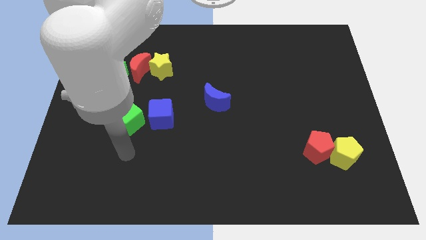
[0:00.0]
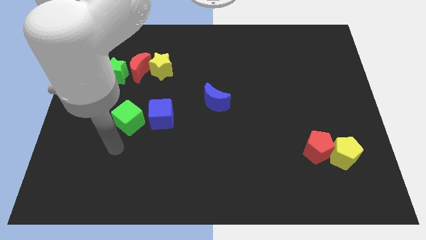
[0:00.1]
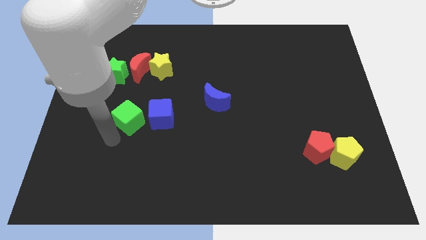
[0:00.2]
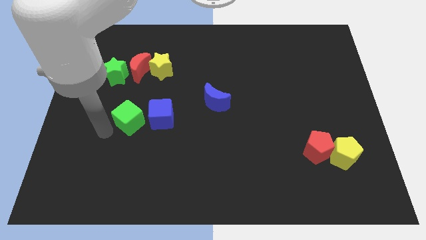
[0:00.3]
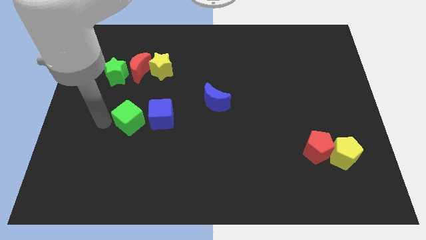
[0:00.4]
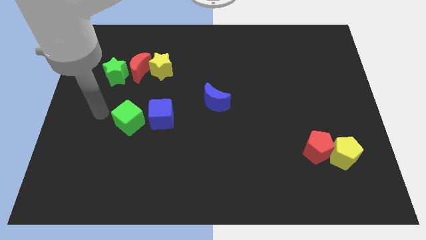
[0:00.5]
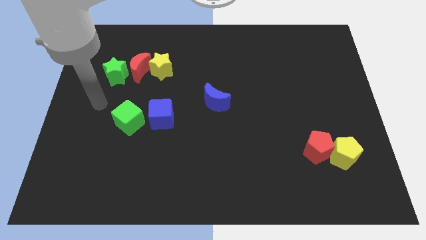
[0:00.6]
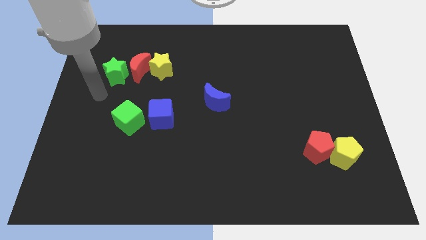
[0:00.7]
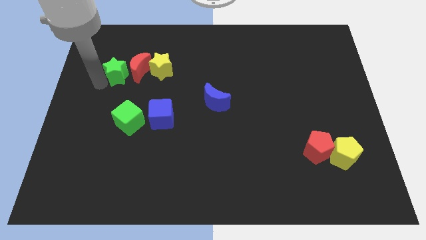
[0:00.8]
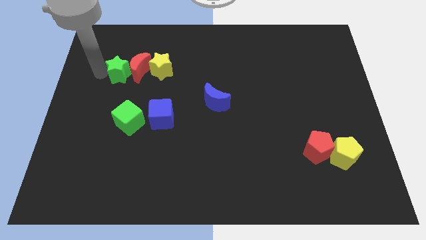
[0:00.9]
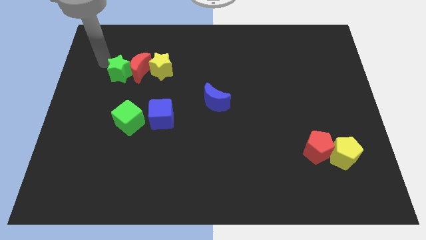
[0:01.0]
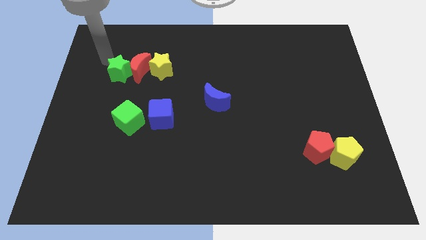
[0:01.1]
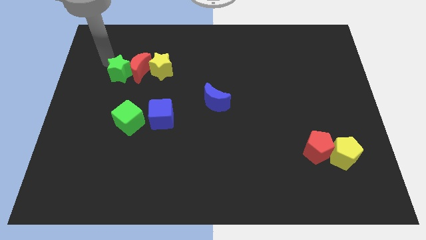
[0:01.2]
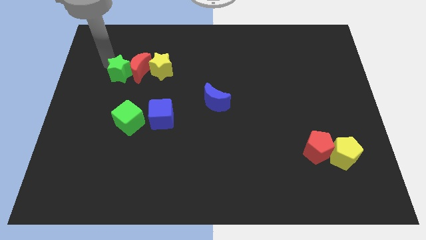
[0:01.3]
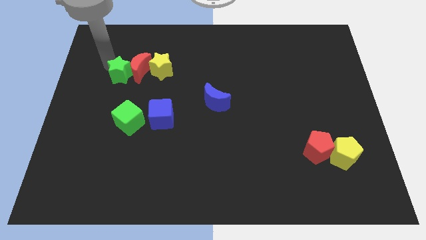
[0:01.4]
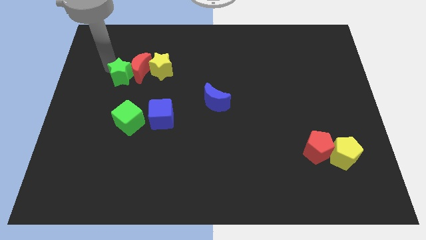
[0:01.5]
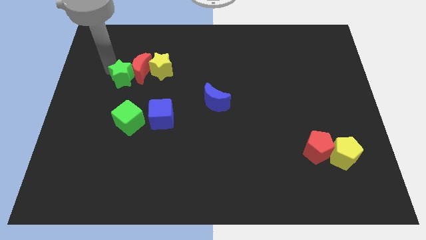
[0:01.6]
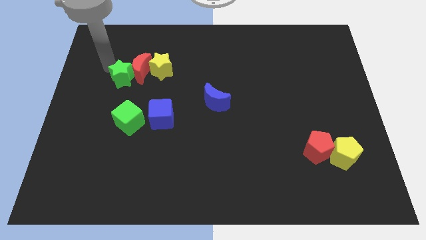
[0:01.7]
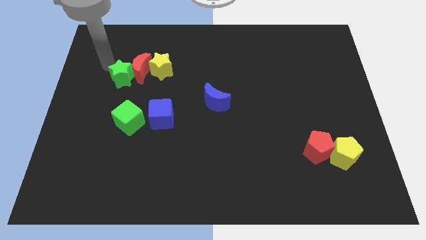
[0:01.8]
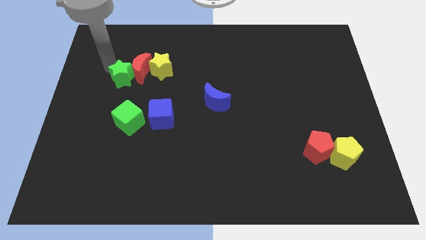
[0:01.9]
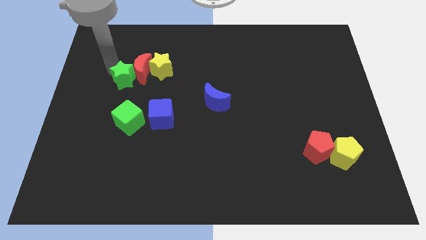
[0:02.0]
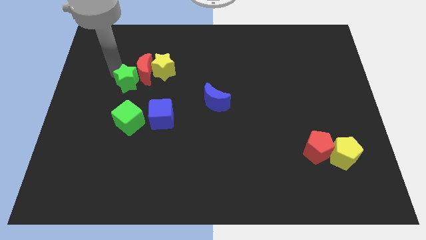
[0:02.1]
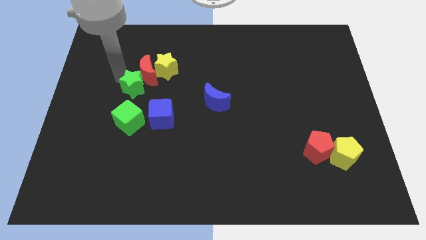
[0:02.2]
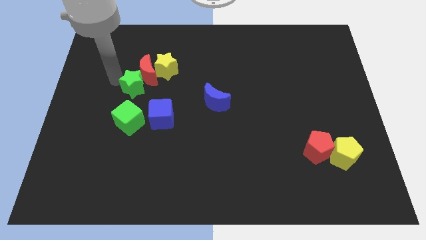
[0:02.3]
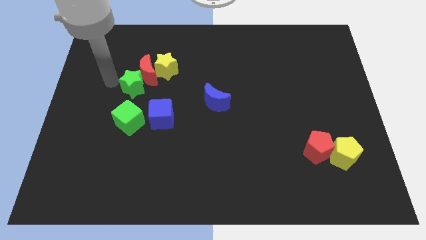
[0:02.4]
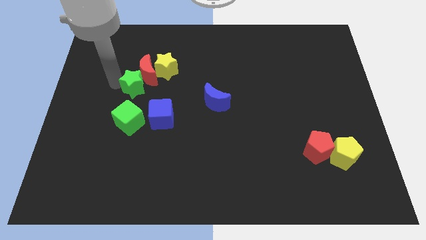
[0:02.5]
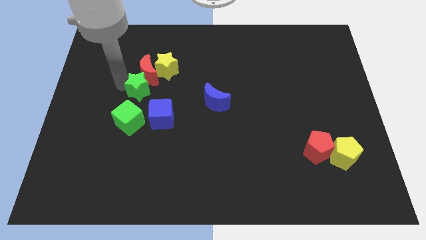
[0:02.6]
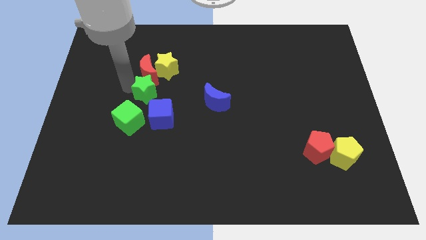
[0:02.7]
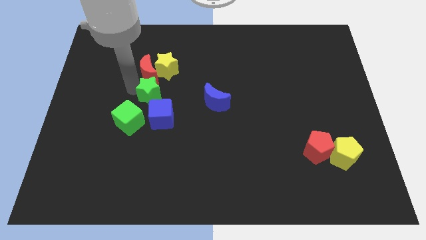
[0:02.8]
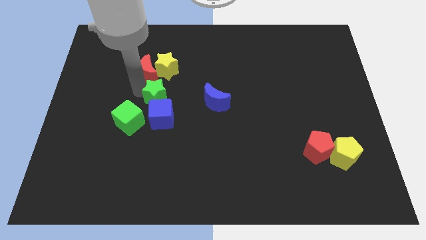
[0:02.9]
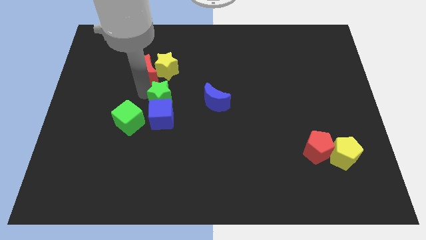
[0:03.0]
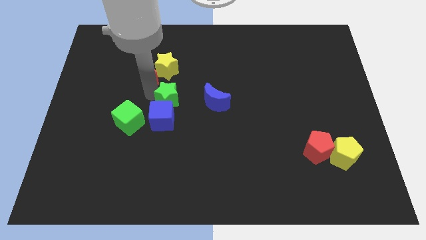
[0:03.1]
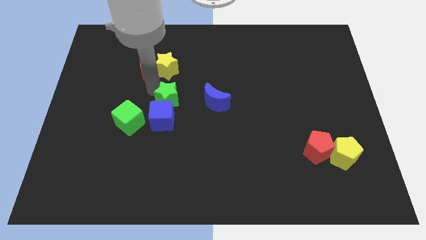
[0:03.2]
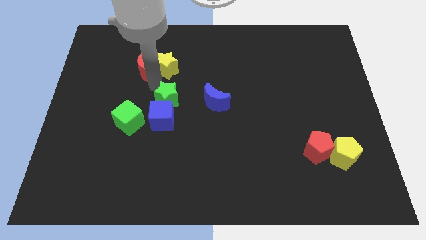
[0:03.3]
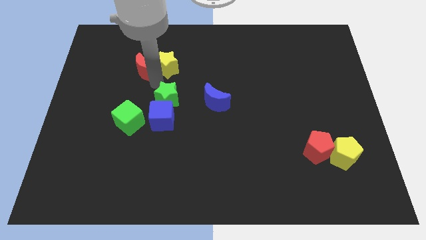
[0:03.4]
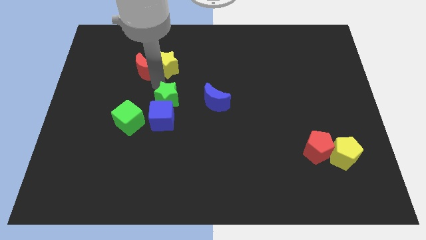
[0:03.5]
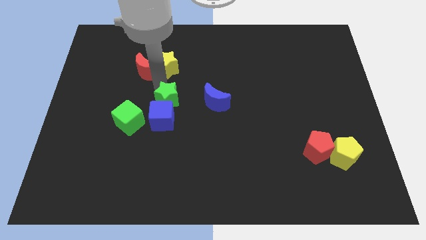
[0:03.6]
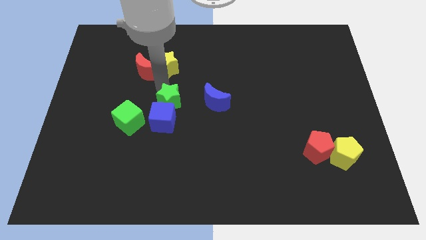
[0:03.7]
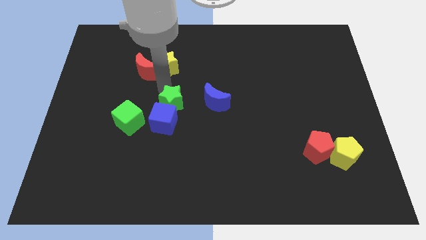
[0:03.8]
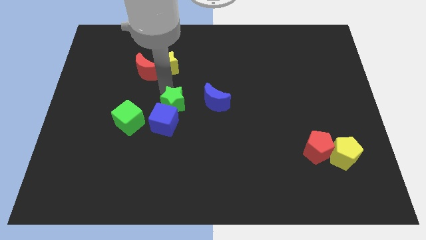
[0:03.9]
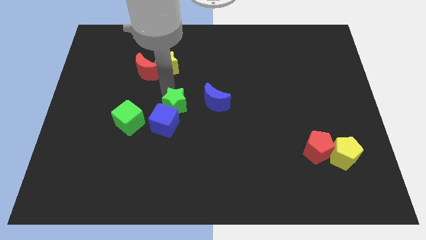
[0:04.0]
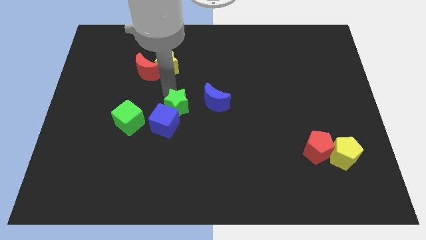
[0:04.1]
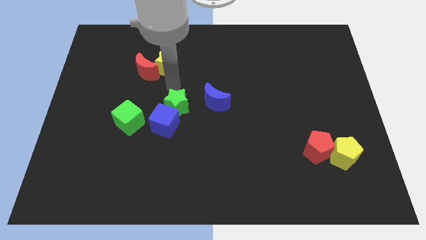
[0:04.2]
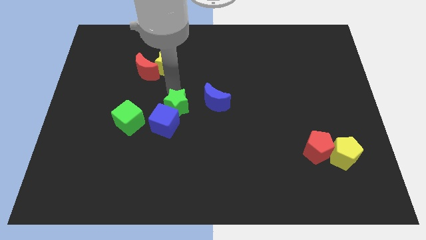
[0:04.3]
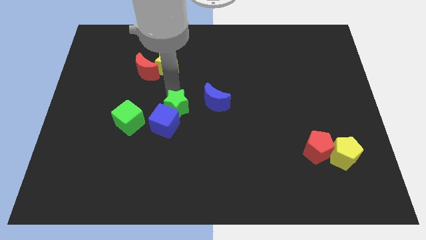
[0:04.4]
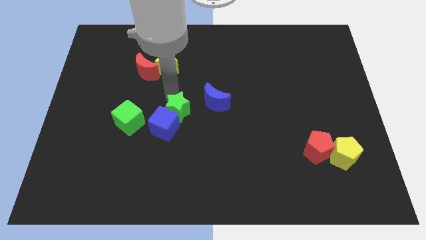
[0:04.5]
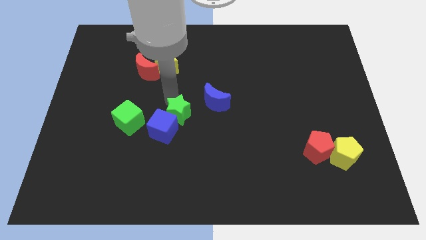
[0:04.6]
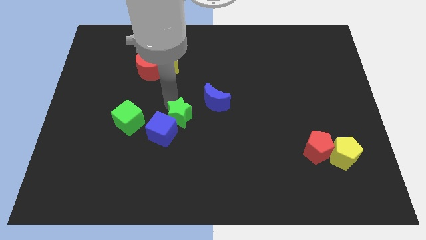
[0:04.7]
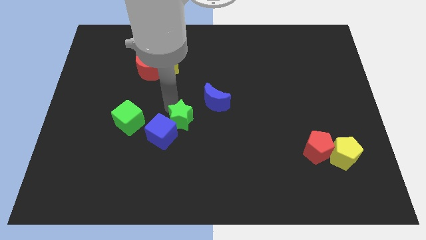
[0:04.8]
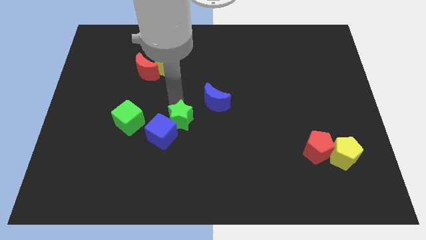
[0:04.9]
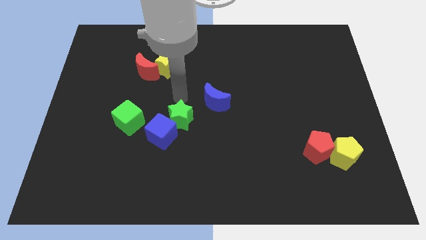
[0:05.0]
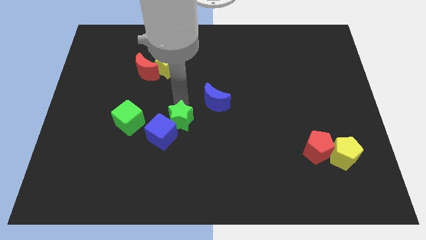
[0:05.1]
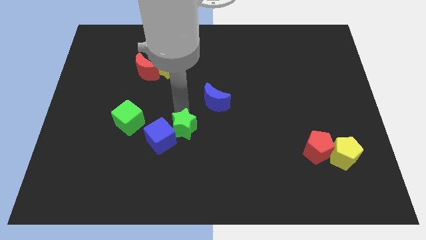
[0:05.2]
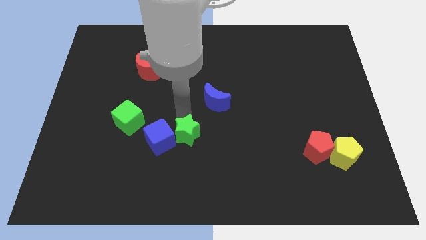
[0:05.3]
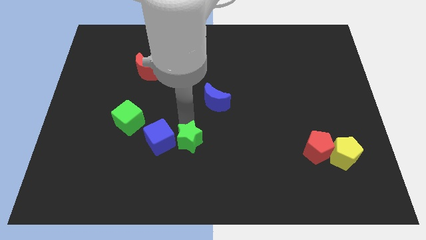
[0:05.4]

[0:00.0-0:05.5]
put the green star to the bottom right of the blue cube

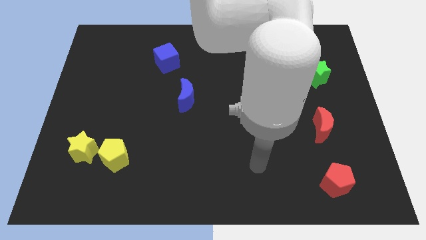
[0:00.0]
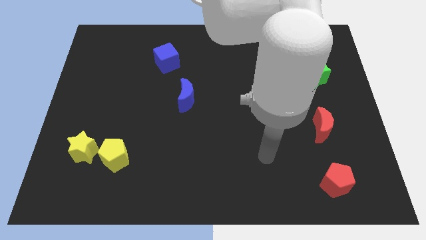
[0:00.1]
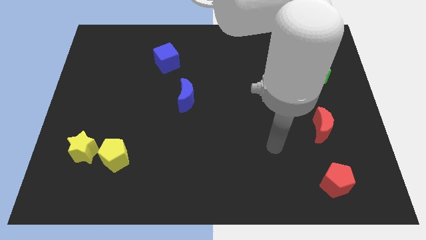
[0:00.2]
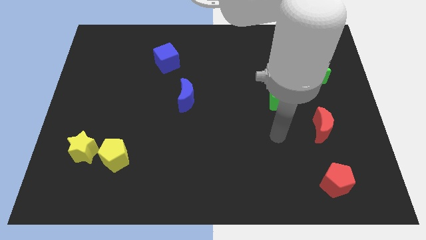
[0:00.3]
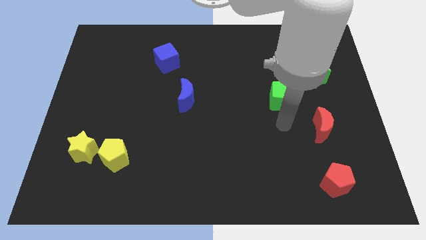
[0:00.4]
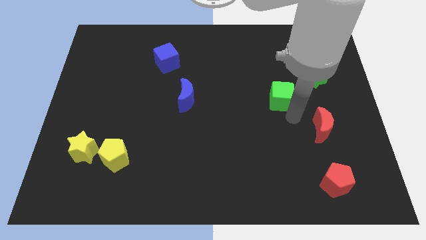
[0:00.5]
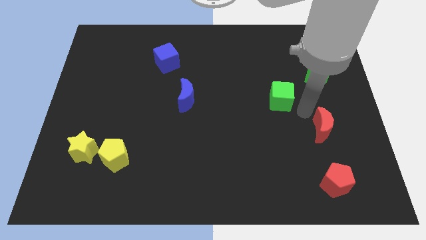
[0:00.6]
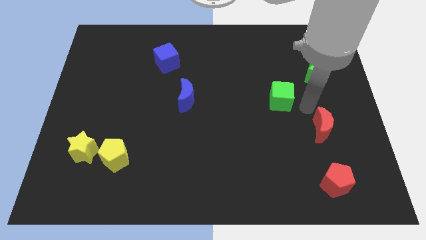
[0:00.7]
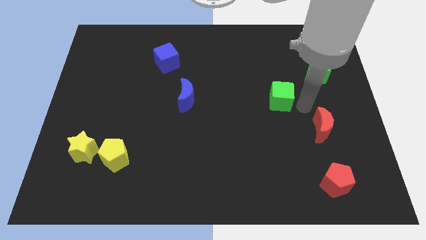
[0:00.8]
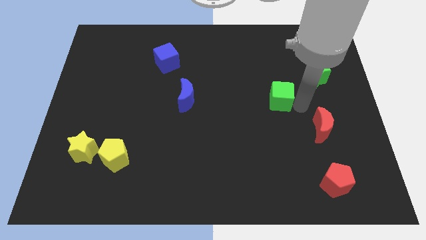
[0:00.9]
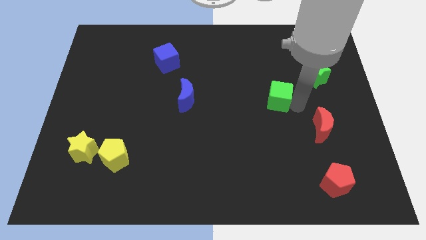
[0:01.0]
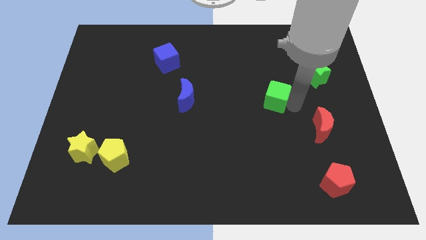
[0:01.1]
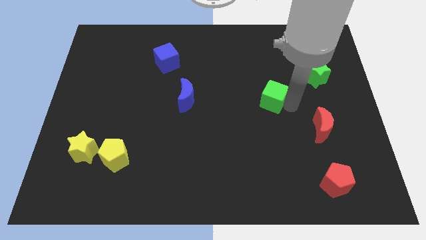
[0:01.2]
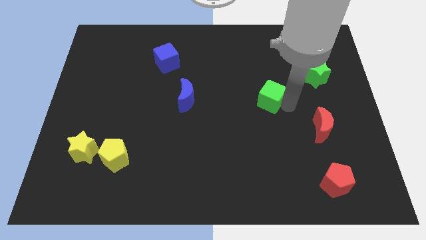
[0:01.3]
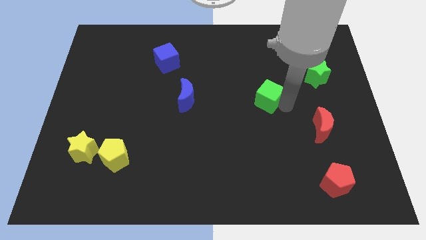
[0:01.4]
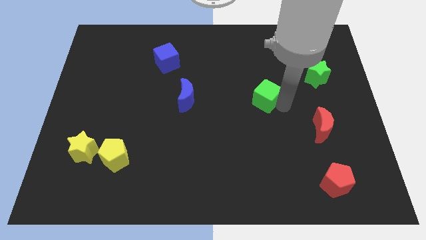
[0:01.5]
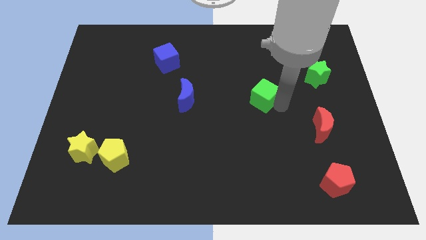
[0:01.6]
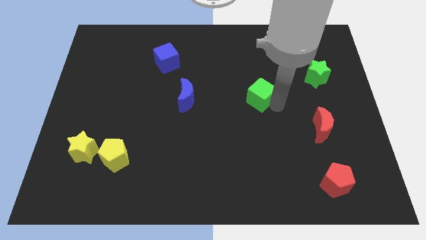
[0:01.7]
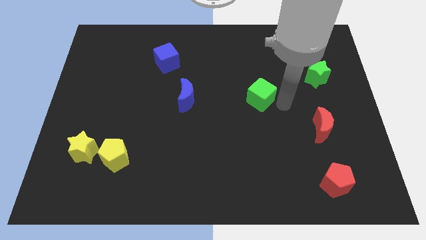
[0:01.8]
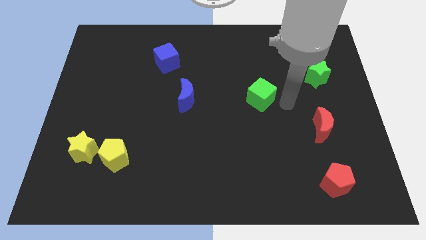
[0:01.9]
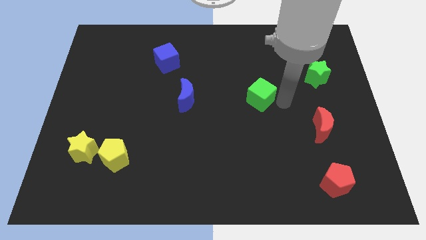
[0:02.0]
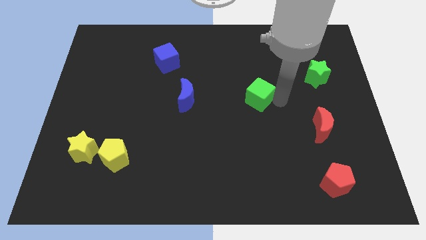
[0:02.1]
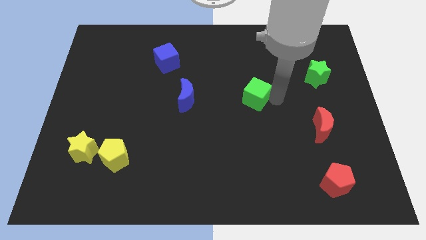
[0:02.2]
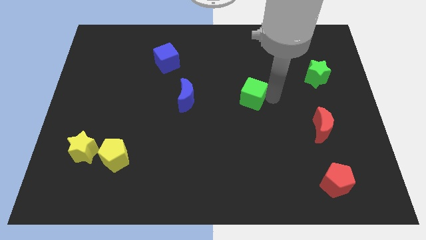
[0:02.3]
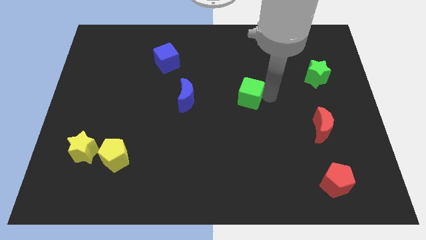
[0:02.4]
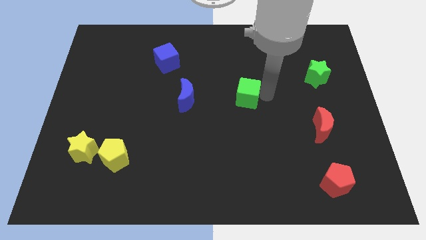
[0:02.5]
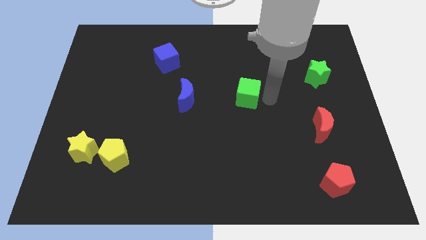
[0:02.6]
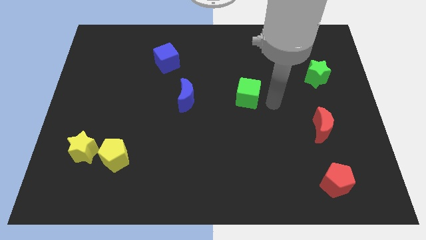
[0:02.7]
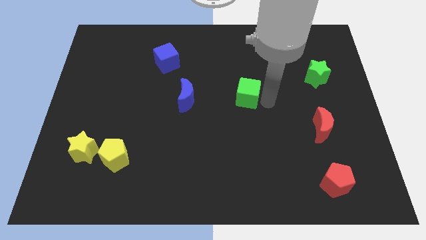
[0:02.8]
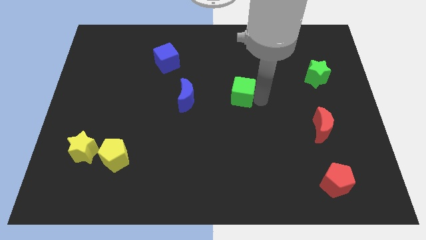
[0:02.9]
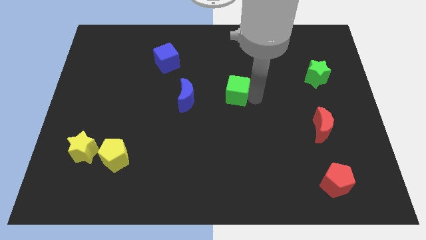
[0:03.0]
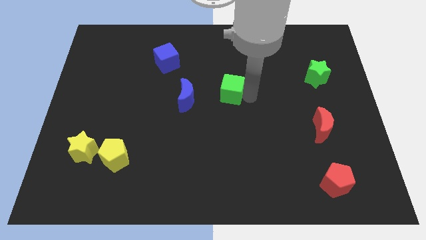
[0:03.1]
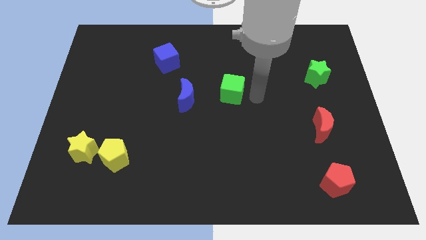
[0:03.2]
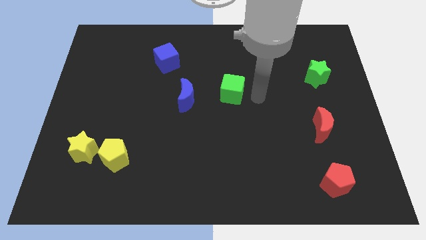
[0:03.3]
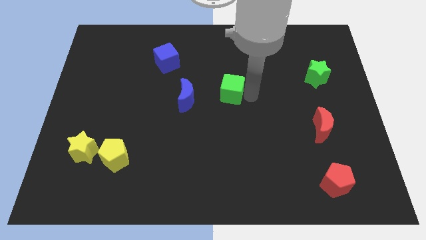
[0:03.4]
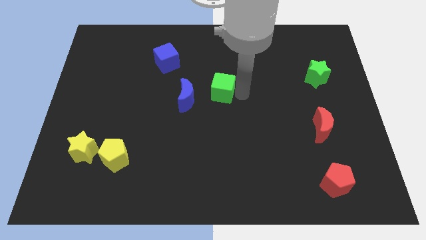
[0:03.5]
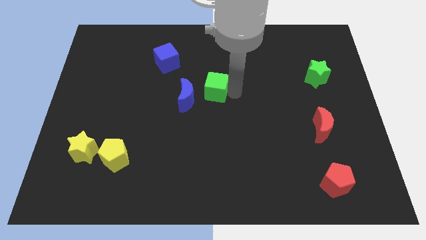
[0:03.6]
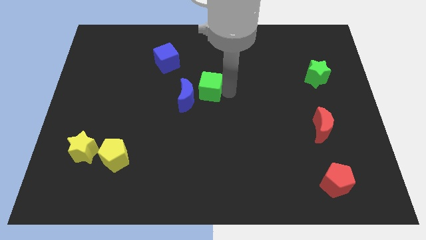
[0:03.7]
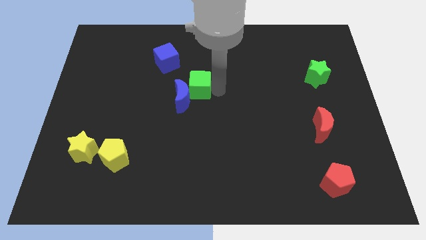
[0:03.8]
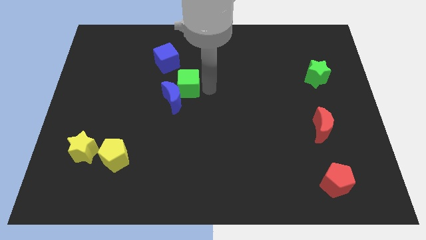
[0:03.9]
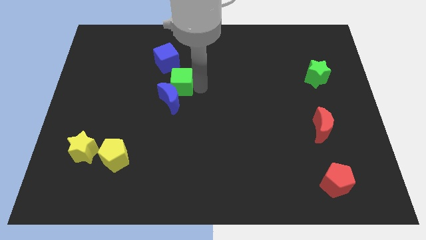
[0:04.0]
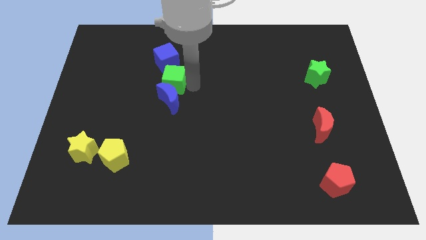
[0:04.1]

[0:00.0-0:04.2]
put the green cube to the top left side of the blue moon
